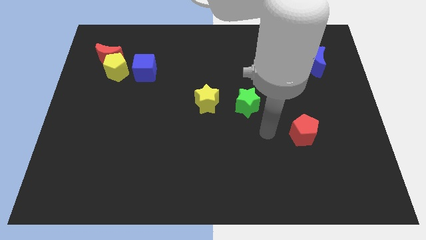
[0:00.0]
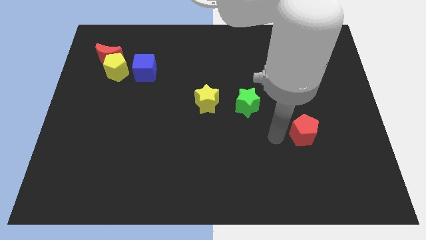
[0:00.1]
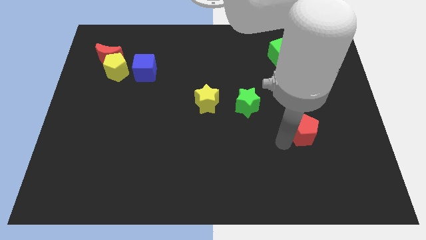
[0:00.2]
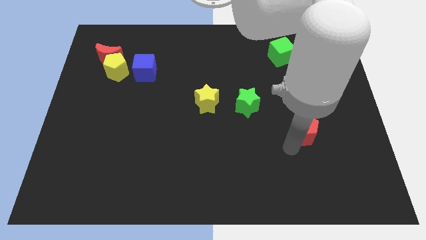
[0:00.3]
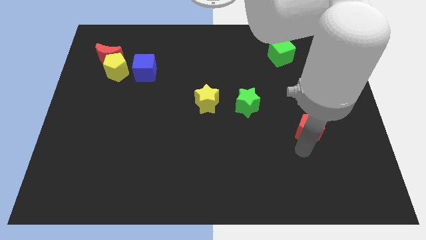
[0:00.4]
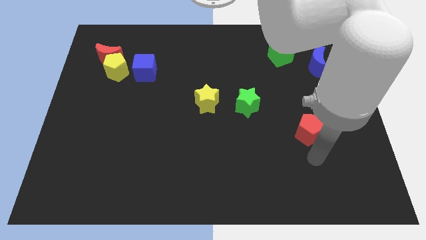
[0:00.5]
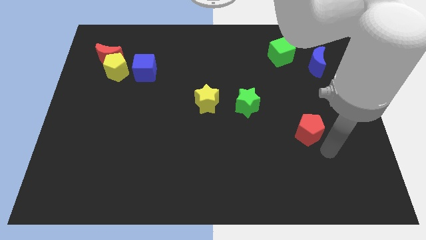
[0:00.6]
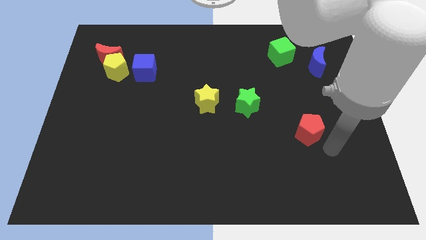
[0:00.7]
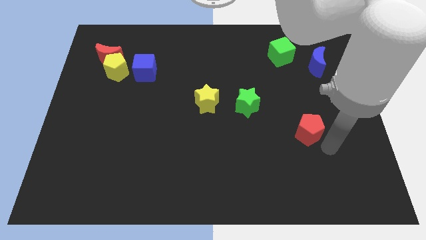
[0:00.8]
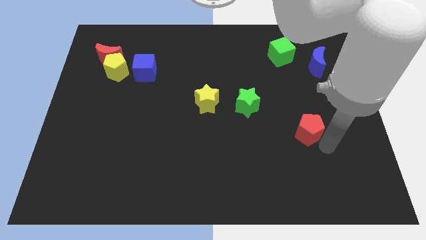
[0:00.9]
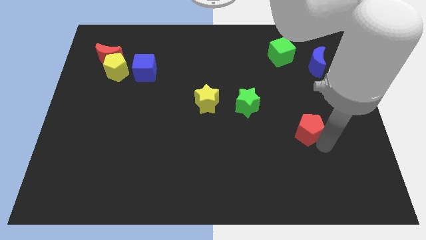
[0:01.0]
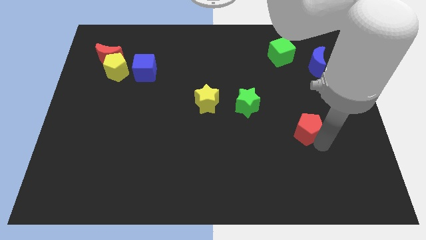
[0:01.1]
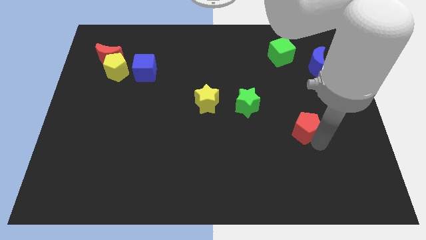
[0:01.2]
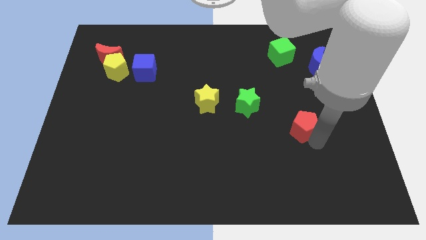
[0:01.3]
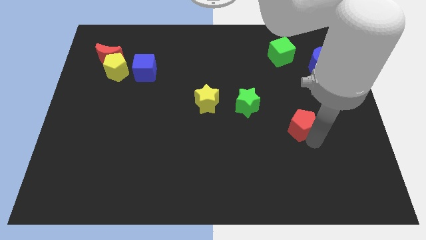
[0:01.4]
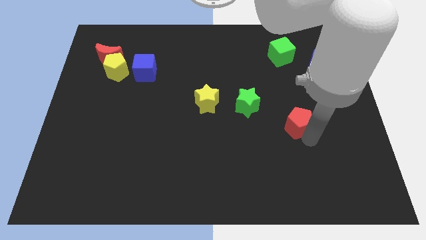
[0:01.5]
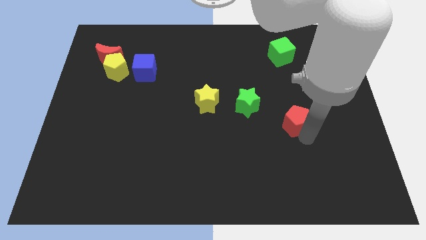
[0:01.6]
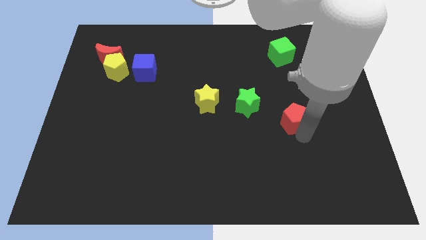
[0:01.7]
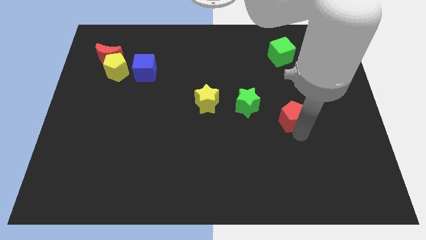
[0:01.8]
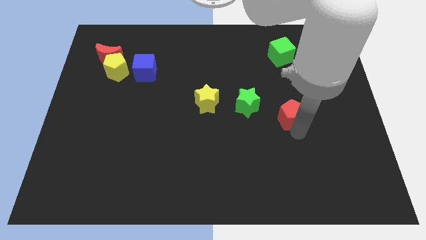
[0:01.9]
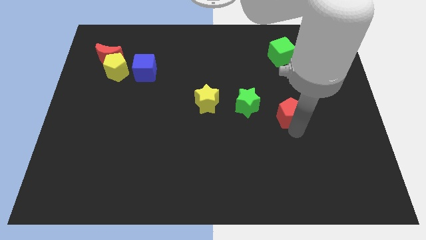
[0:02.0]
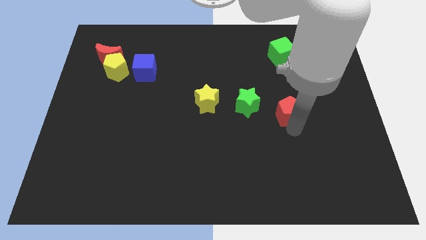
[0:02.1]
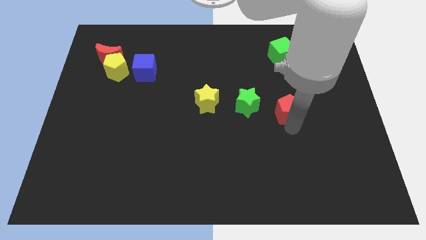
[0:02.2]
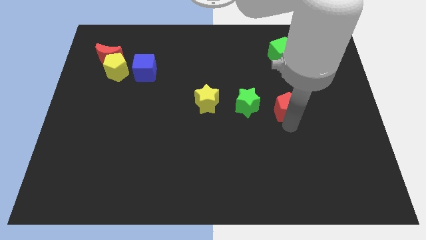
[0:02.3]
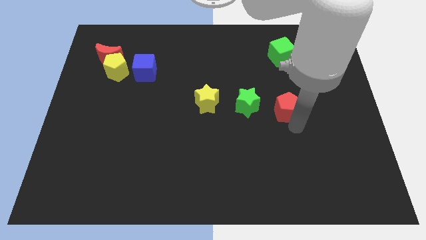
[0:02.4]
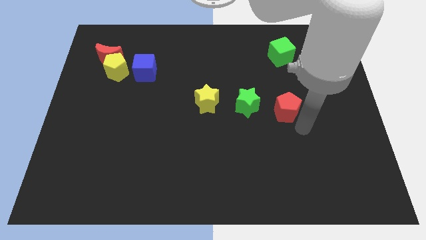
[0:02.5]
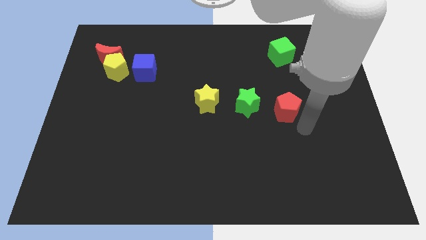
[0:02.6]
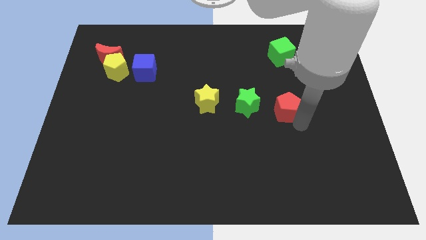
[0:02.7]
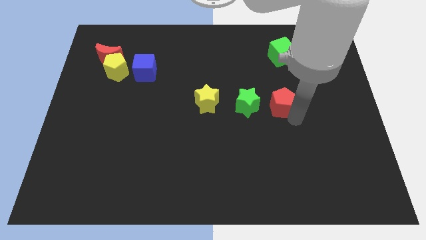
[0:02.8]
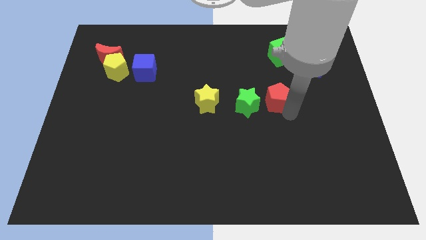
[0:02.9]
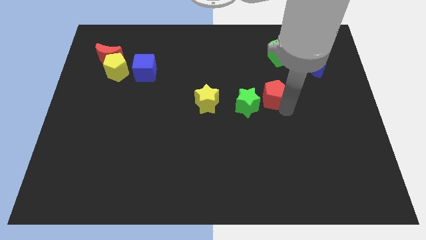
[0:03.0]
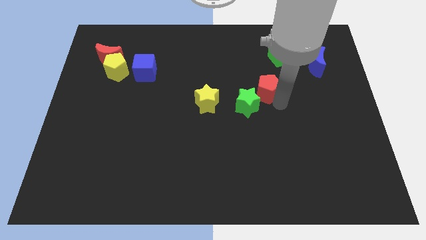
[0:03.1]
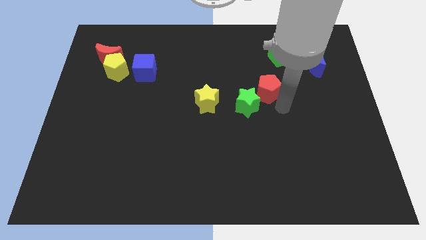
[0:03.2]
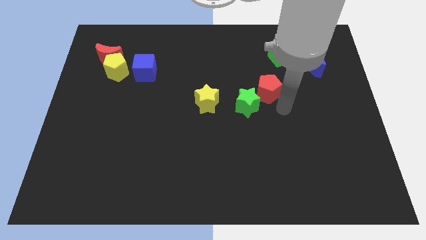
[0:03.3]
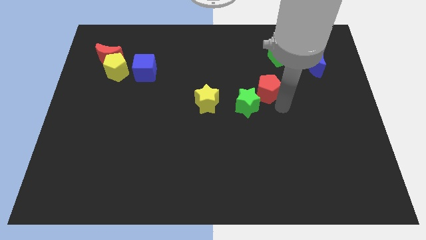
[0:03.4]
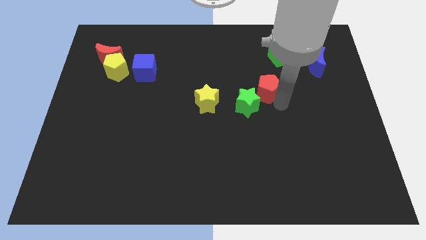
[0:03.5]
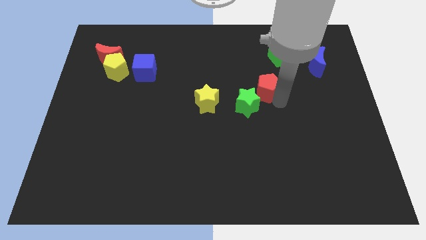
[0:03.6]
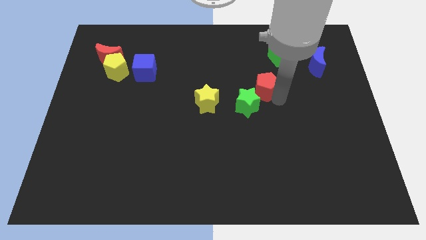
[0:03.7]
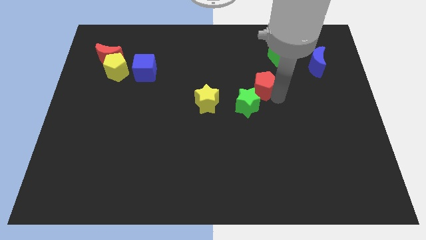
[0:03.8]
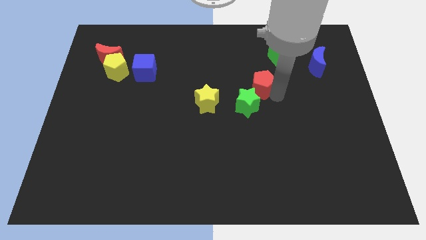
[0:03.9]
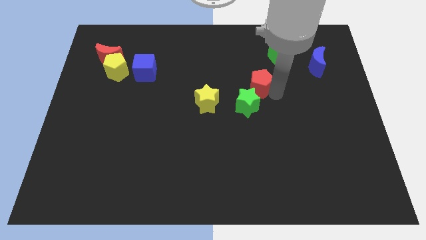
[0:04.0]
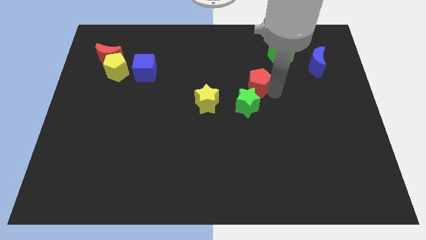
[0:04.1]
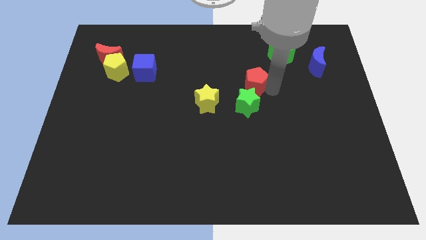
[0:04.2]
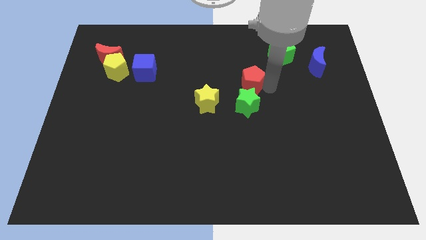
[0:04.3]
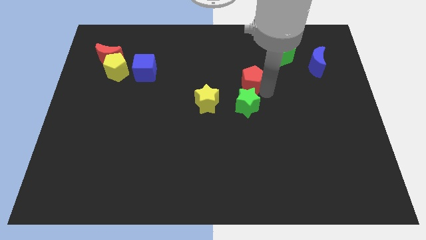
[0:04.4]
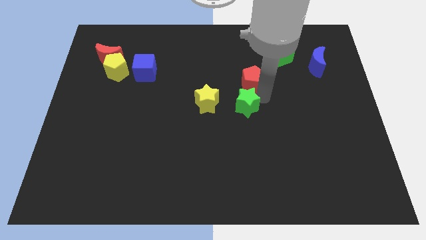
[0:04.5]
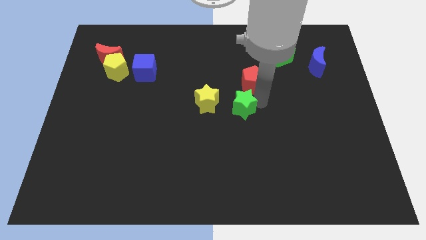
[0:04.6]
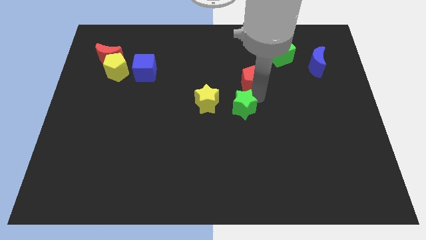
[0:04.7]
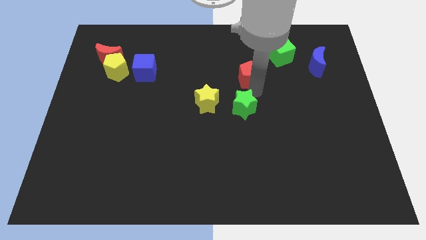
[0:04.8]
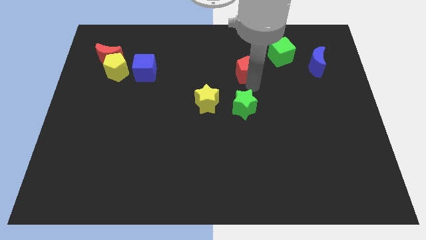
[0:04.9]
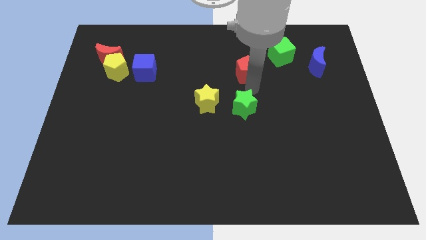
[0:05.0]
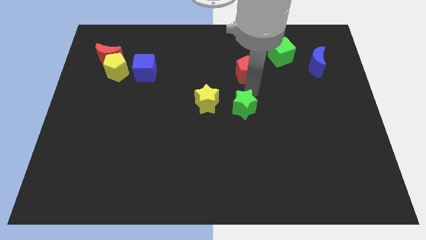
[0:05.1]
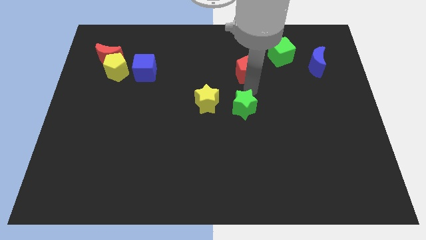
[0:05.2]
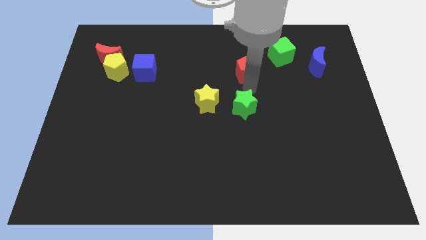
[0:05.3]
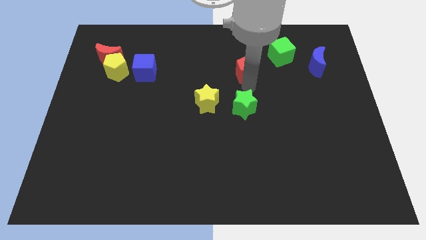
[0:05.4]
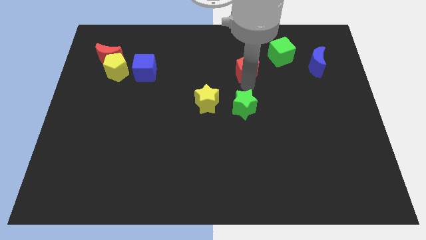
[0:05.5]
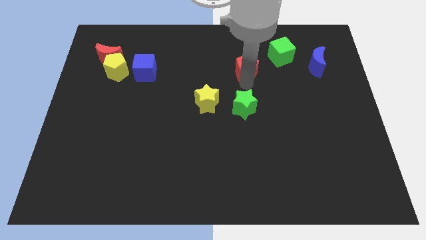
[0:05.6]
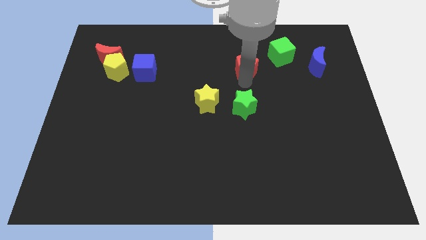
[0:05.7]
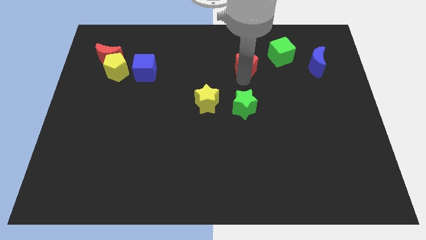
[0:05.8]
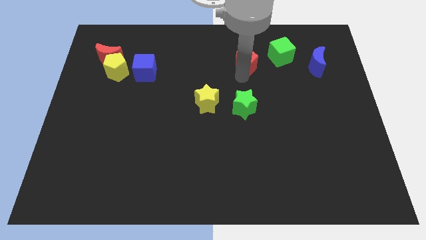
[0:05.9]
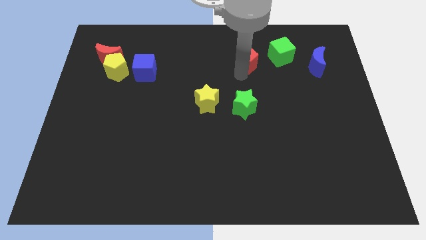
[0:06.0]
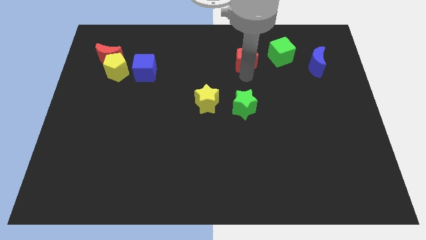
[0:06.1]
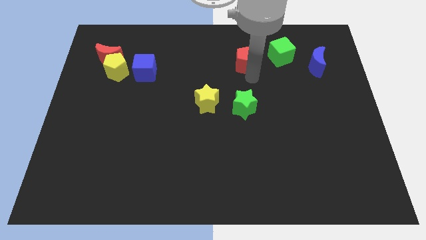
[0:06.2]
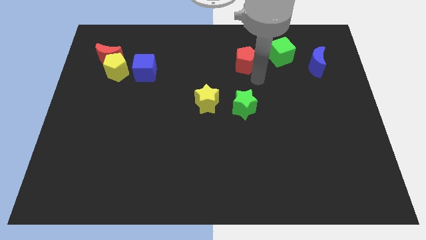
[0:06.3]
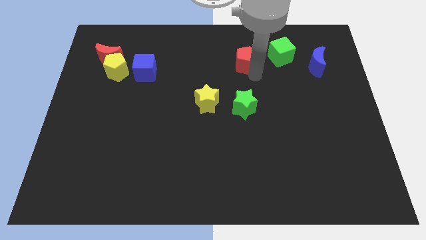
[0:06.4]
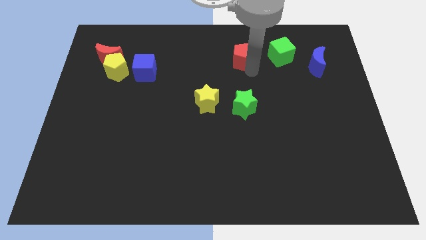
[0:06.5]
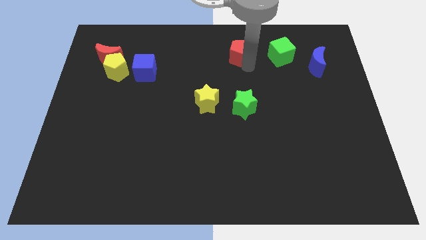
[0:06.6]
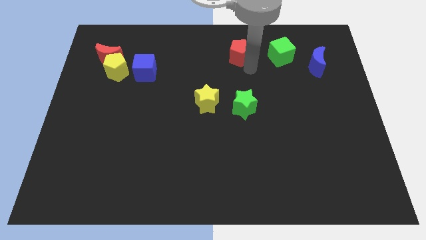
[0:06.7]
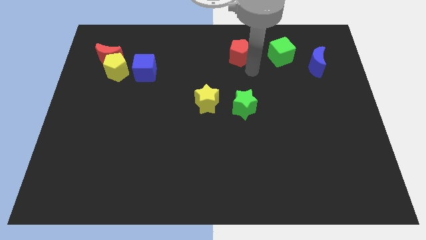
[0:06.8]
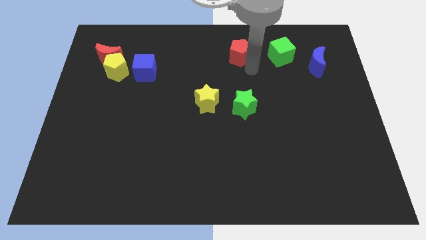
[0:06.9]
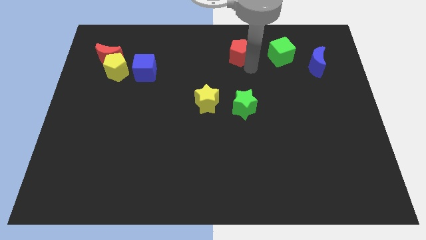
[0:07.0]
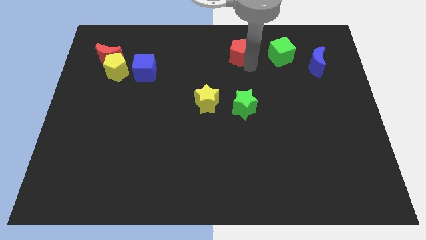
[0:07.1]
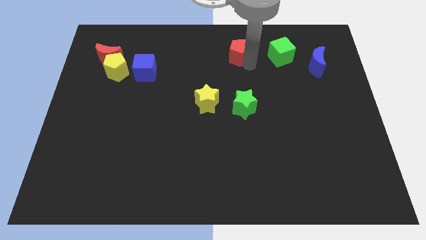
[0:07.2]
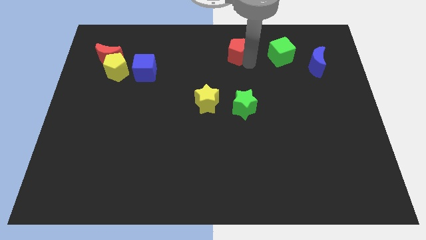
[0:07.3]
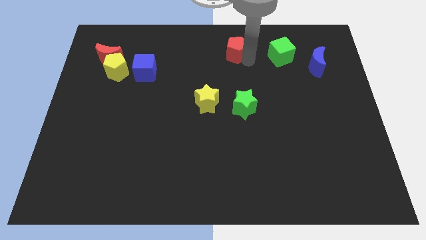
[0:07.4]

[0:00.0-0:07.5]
push the red pentagon to the top side
